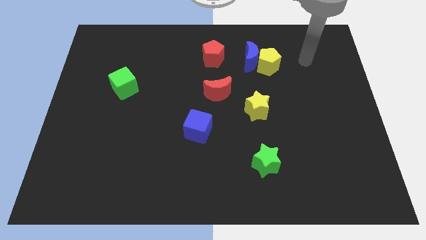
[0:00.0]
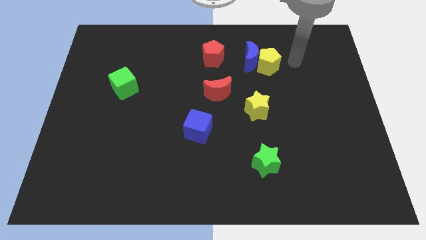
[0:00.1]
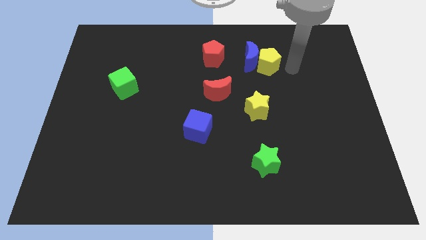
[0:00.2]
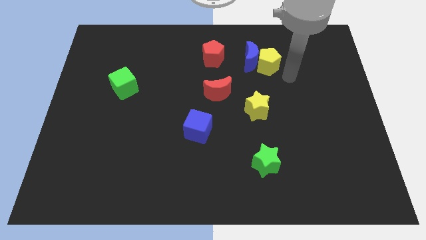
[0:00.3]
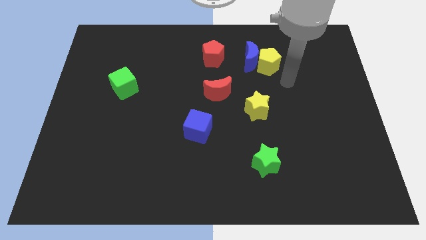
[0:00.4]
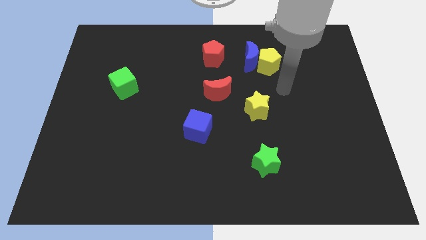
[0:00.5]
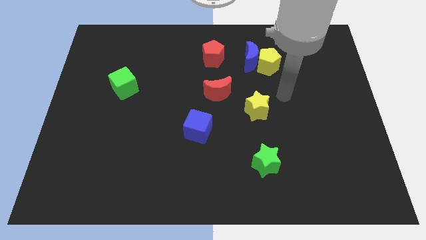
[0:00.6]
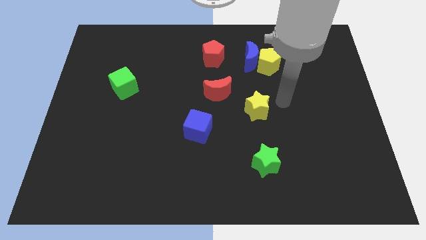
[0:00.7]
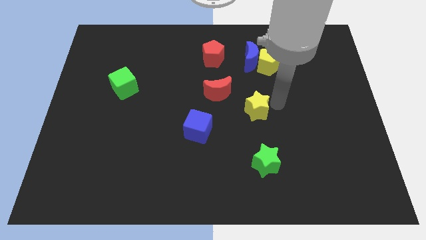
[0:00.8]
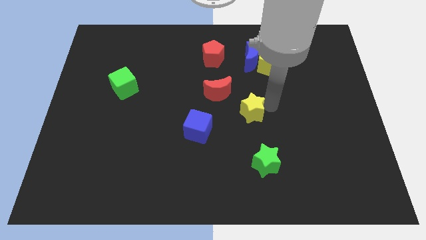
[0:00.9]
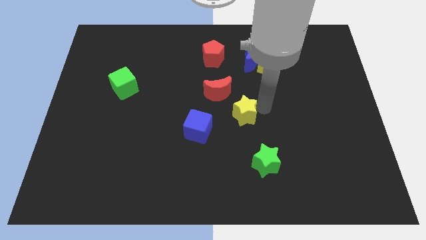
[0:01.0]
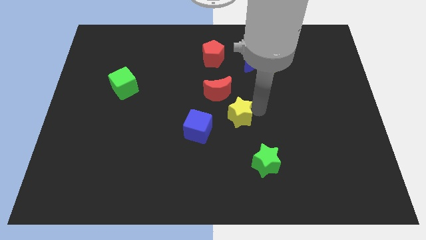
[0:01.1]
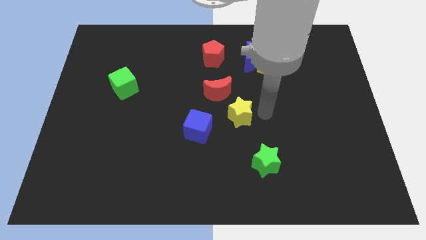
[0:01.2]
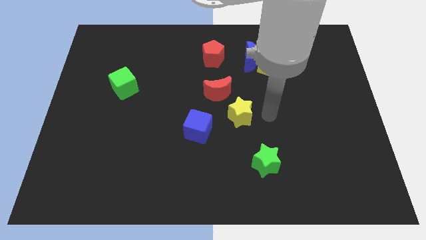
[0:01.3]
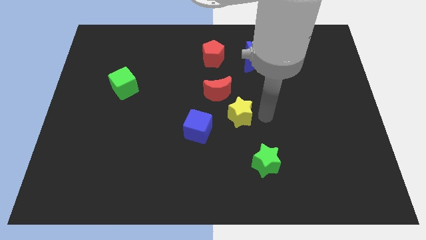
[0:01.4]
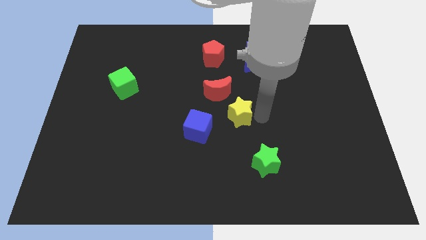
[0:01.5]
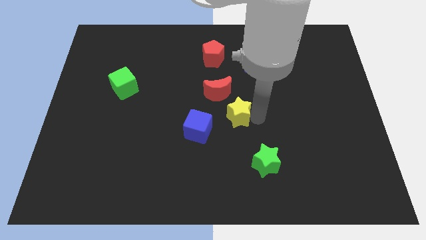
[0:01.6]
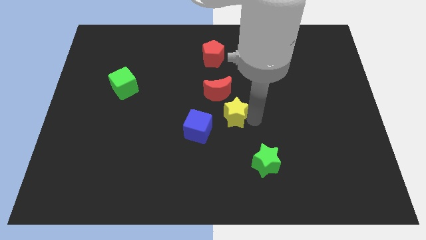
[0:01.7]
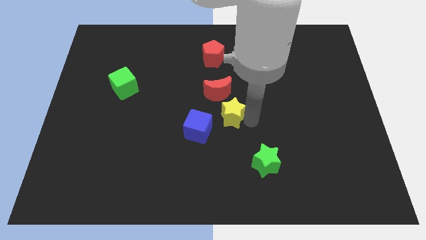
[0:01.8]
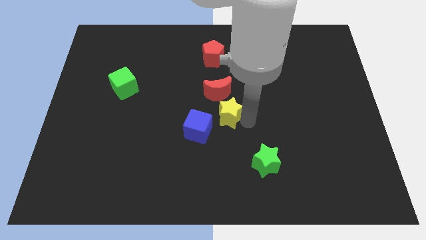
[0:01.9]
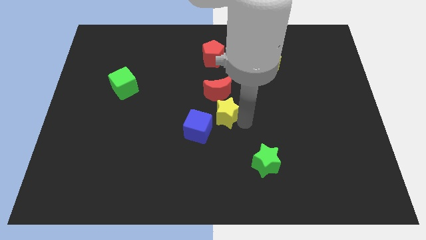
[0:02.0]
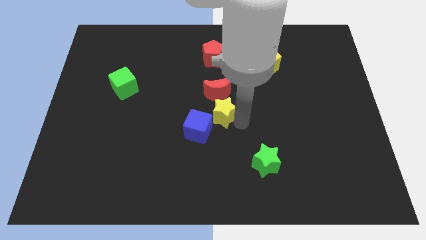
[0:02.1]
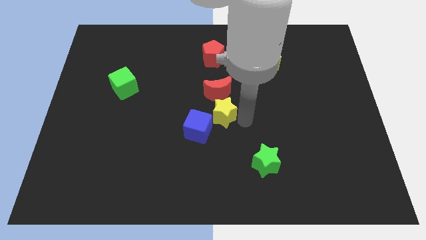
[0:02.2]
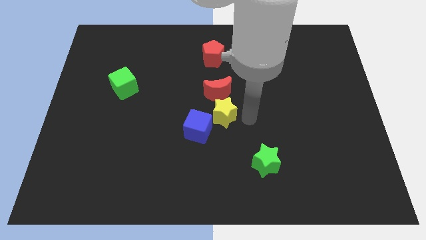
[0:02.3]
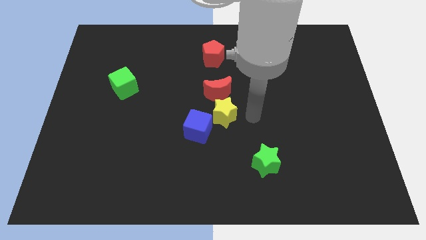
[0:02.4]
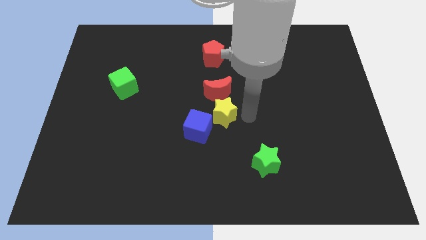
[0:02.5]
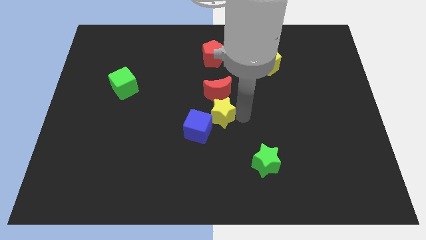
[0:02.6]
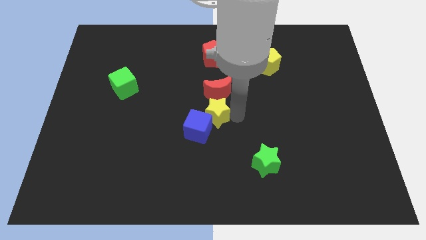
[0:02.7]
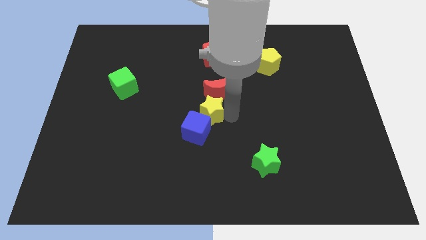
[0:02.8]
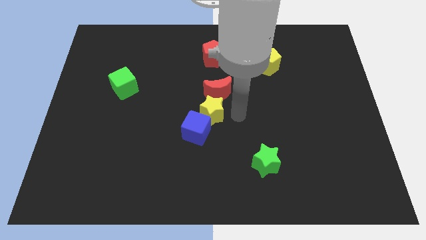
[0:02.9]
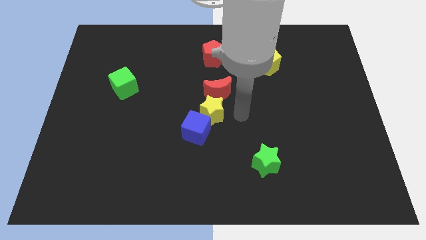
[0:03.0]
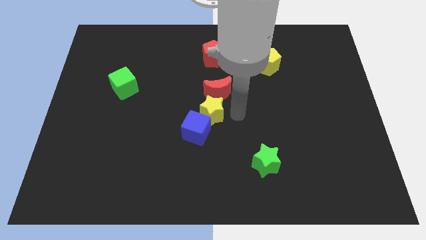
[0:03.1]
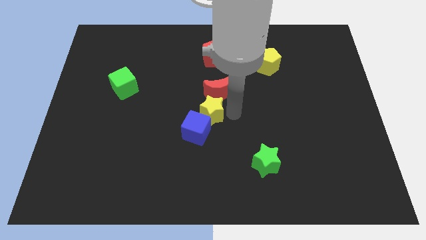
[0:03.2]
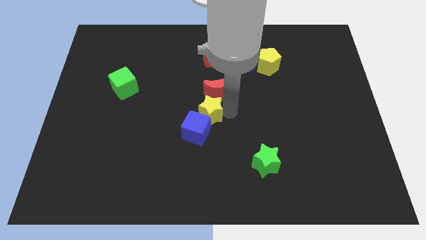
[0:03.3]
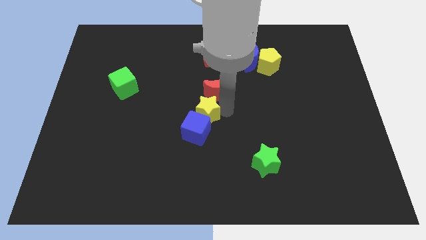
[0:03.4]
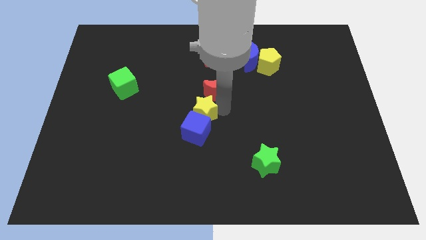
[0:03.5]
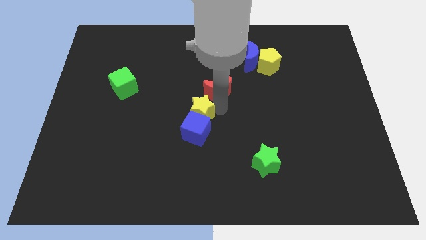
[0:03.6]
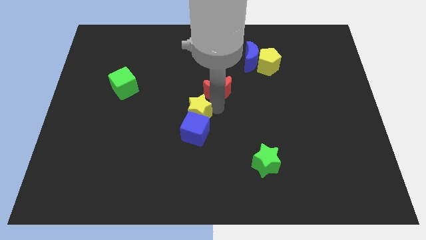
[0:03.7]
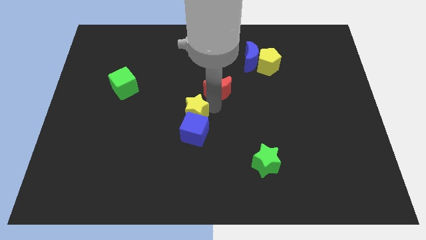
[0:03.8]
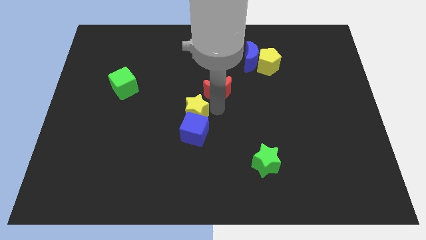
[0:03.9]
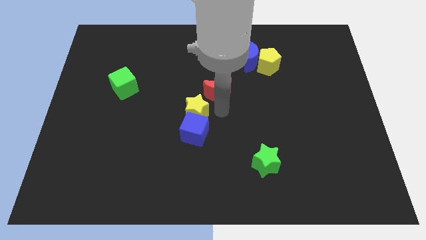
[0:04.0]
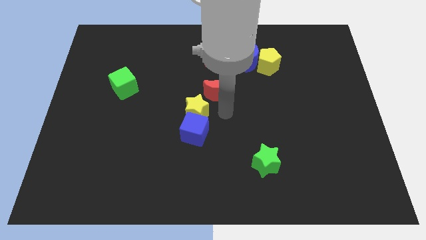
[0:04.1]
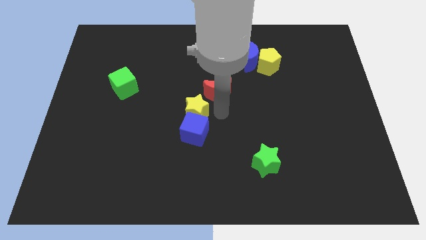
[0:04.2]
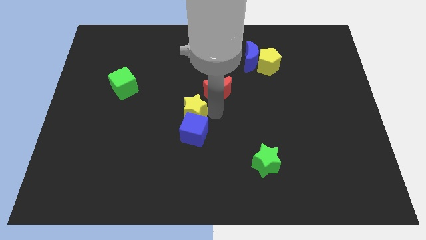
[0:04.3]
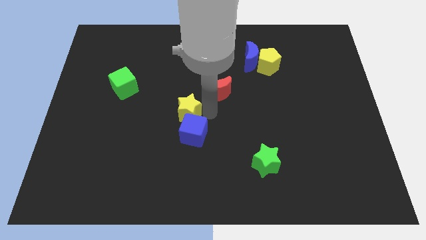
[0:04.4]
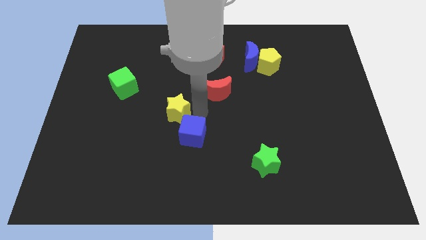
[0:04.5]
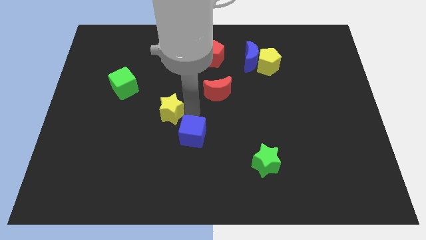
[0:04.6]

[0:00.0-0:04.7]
slide the yellow star left

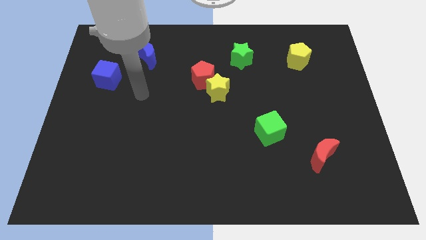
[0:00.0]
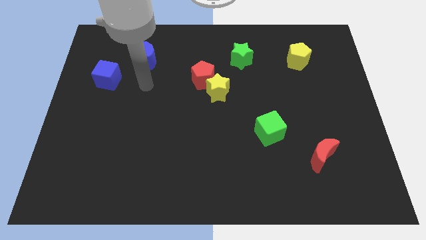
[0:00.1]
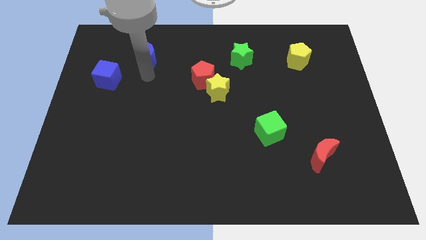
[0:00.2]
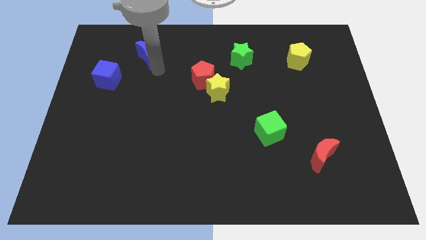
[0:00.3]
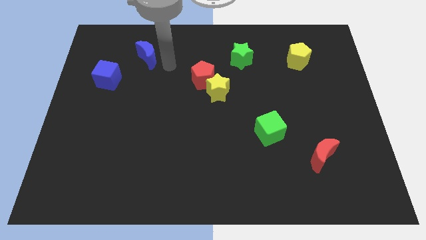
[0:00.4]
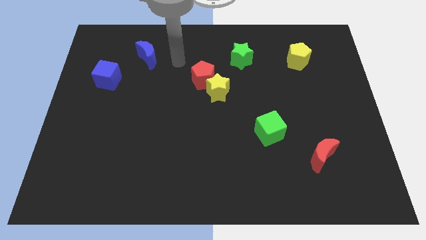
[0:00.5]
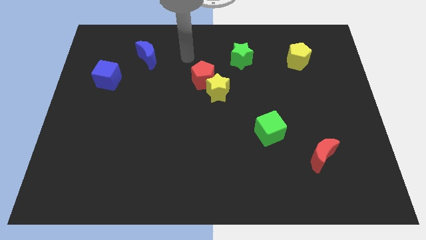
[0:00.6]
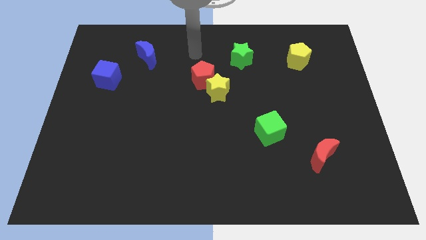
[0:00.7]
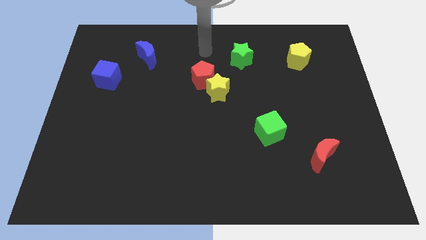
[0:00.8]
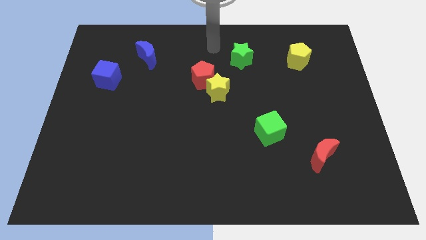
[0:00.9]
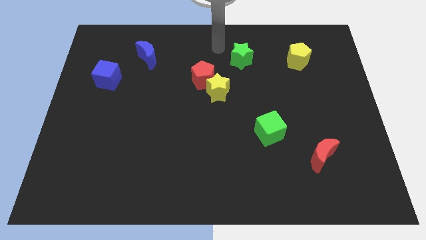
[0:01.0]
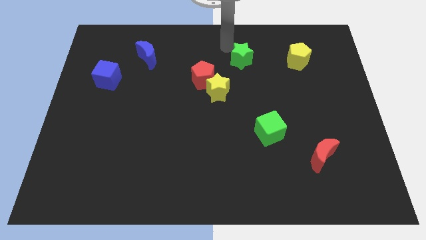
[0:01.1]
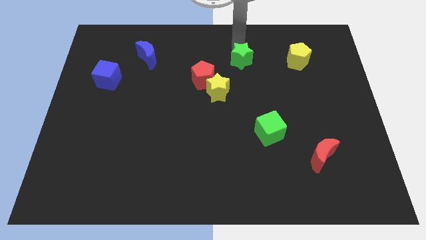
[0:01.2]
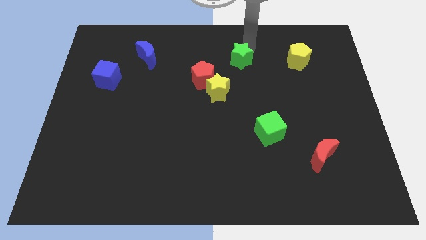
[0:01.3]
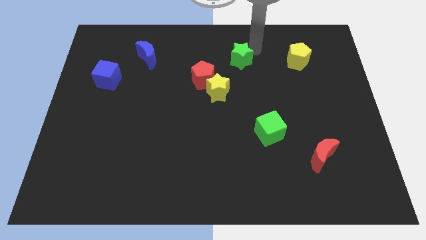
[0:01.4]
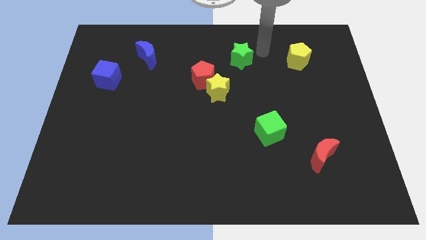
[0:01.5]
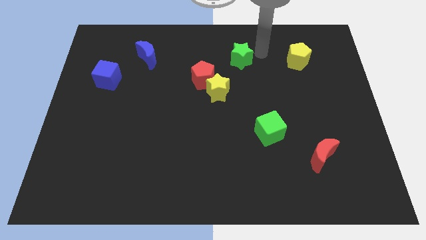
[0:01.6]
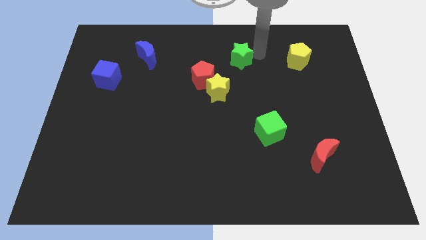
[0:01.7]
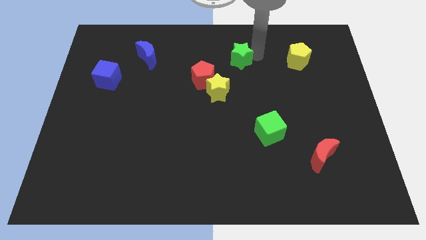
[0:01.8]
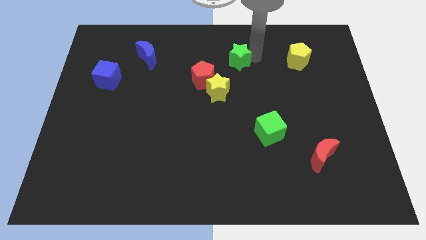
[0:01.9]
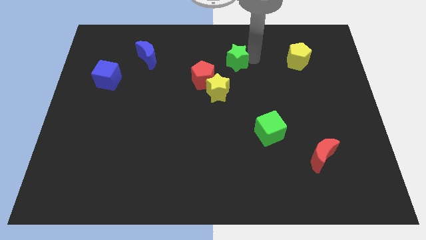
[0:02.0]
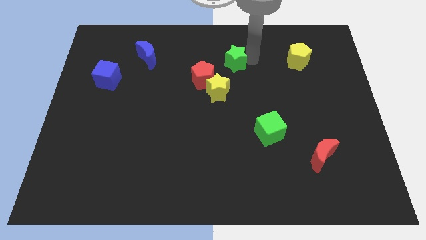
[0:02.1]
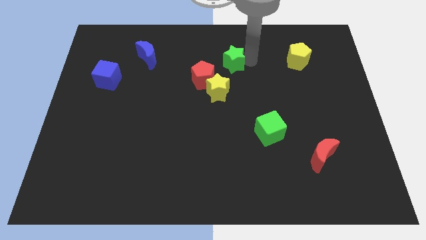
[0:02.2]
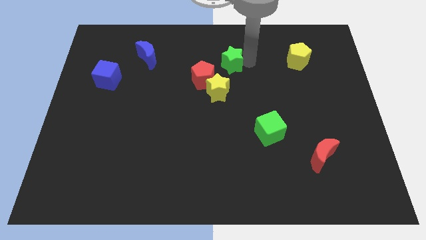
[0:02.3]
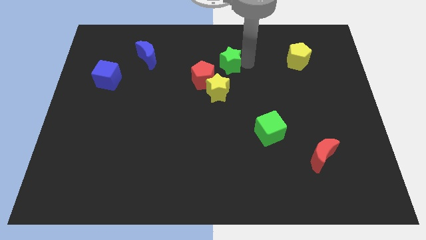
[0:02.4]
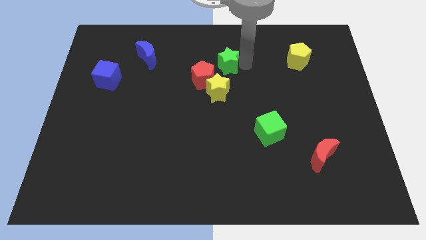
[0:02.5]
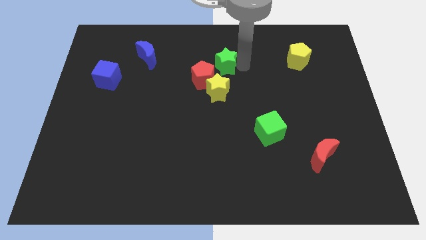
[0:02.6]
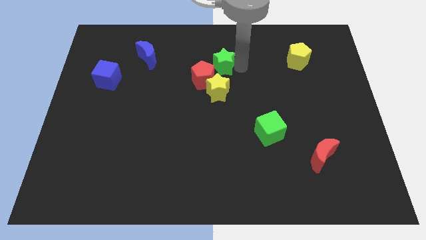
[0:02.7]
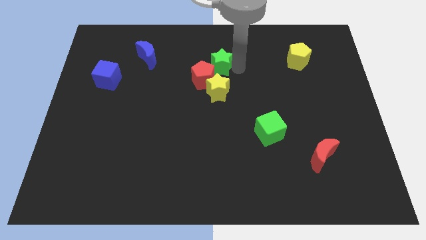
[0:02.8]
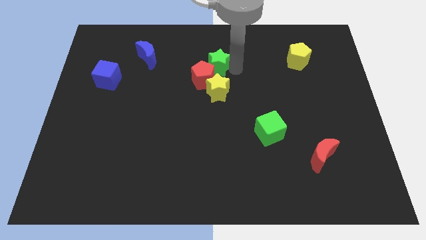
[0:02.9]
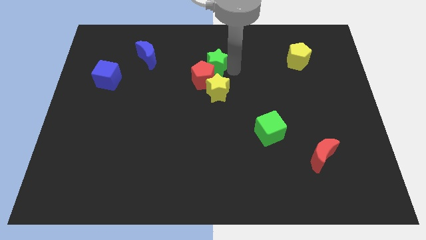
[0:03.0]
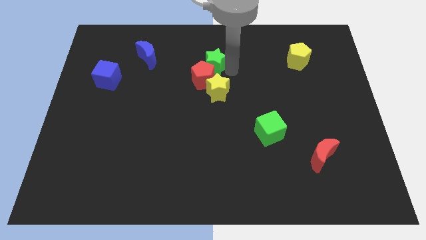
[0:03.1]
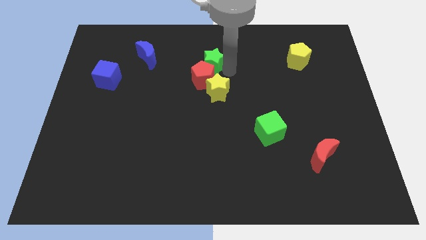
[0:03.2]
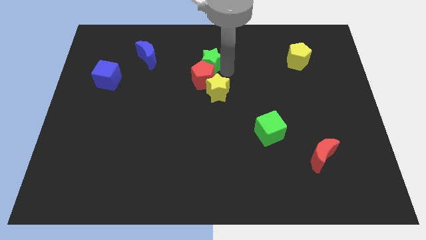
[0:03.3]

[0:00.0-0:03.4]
slightly move the green star downwards and left
